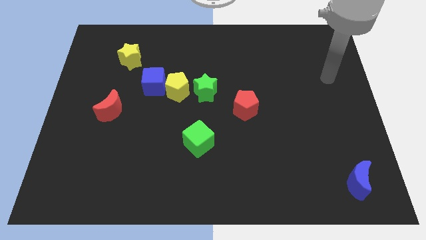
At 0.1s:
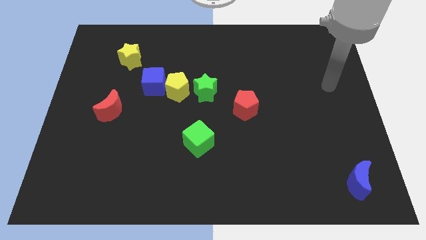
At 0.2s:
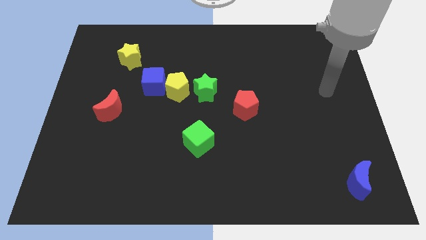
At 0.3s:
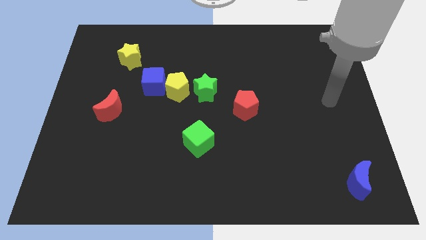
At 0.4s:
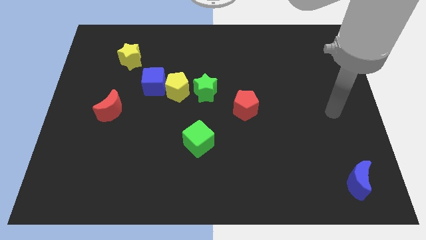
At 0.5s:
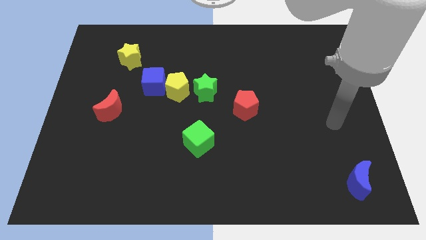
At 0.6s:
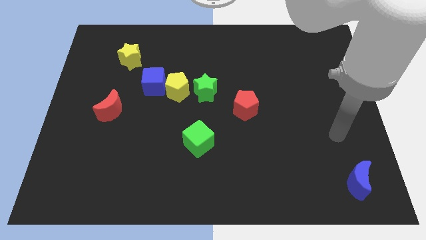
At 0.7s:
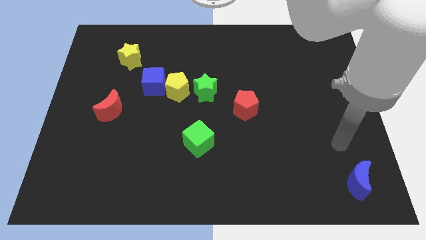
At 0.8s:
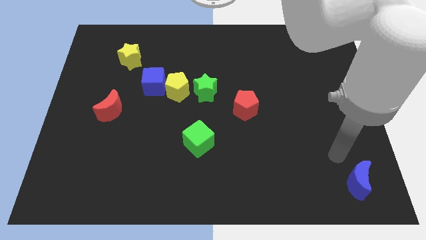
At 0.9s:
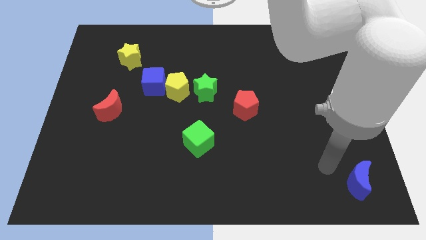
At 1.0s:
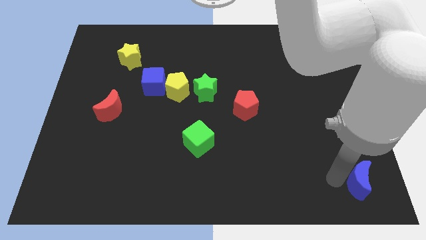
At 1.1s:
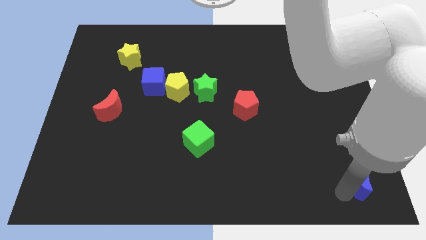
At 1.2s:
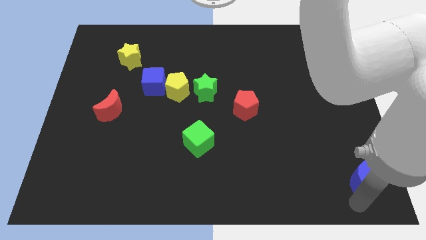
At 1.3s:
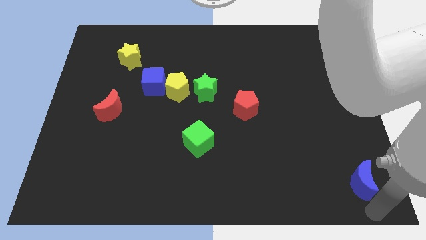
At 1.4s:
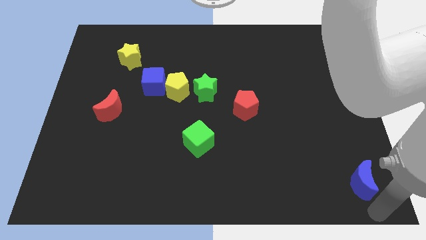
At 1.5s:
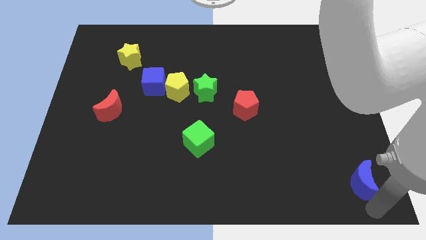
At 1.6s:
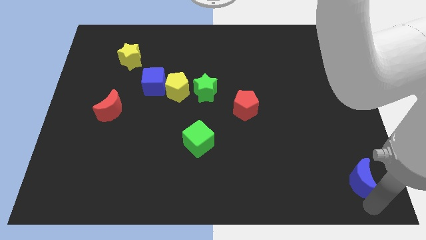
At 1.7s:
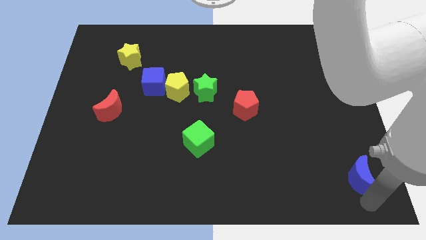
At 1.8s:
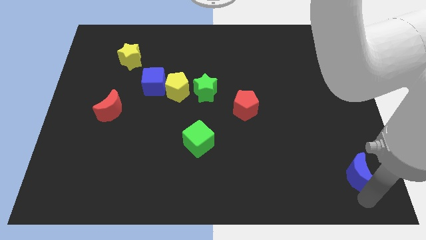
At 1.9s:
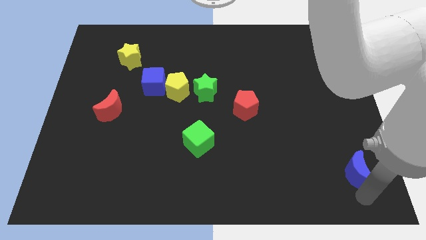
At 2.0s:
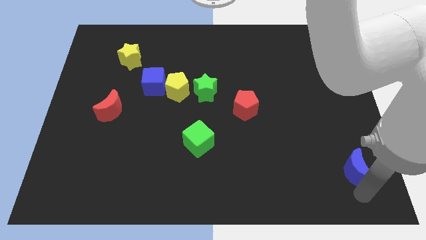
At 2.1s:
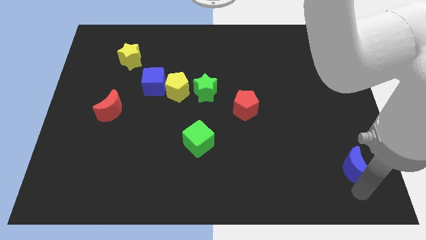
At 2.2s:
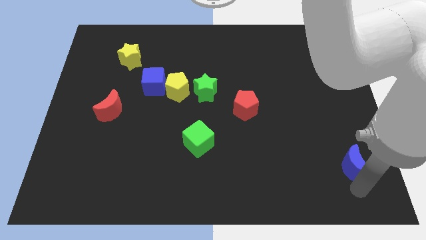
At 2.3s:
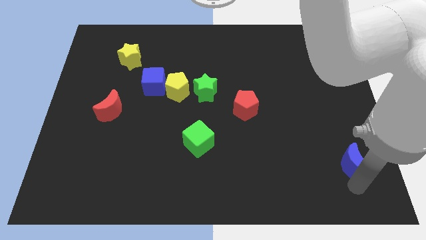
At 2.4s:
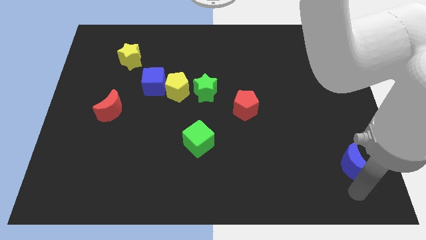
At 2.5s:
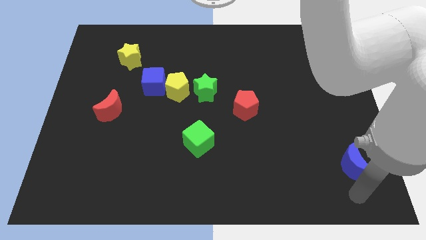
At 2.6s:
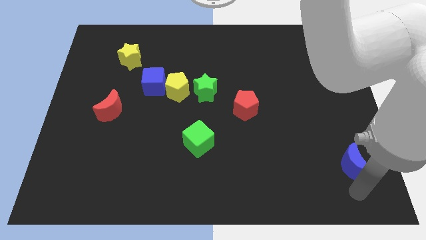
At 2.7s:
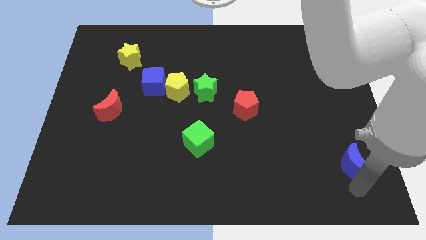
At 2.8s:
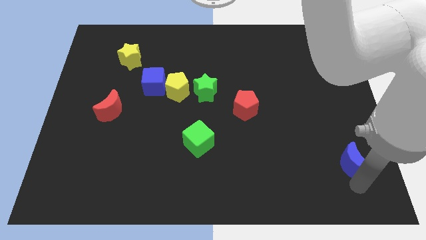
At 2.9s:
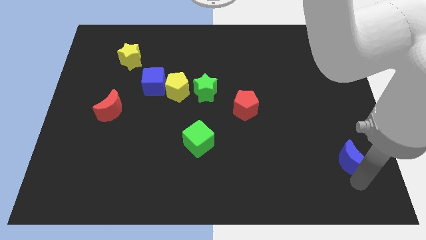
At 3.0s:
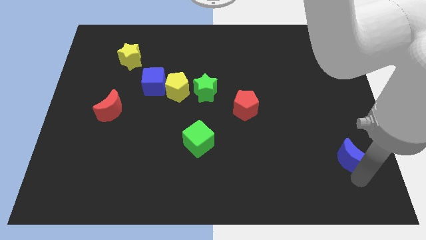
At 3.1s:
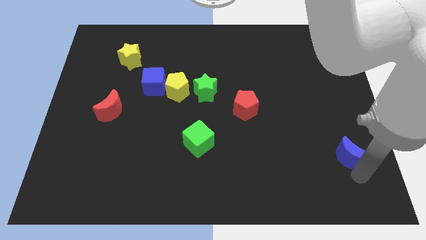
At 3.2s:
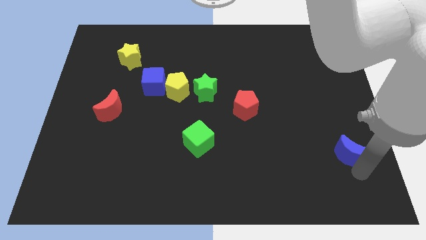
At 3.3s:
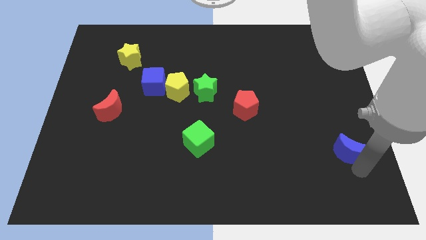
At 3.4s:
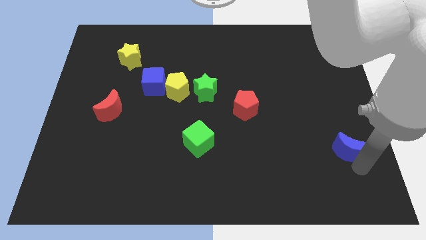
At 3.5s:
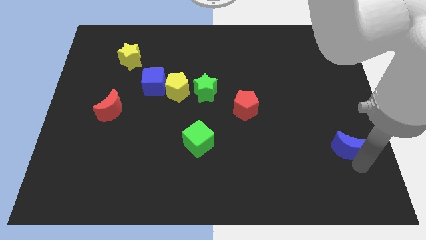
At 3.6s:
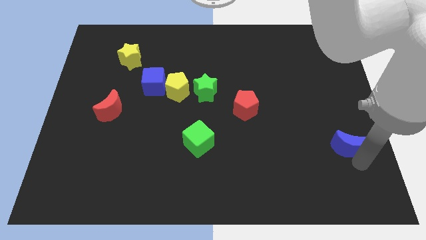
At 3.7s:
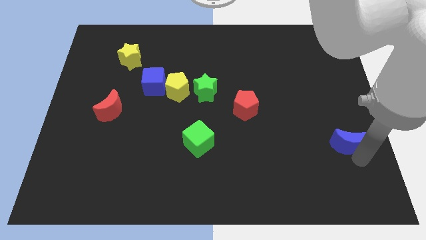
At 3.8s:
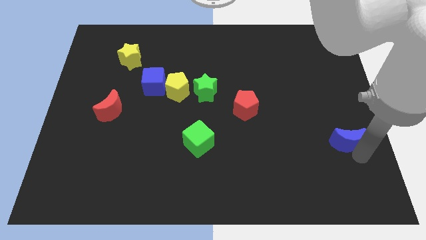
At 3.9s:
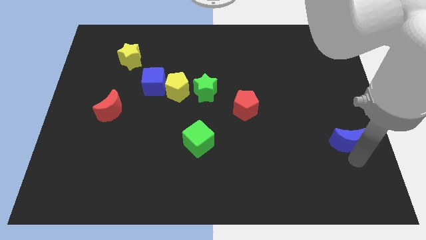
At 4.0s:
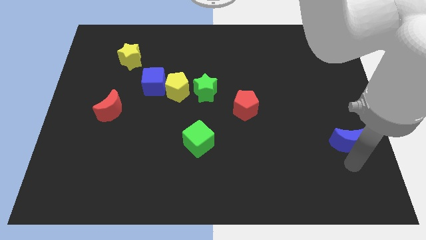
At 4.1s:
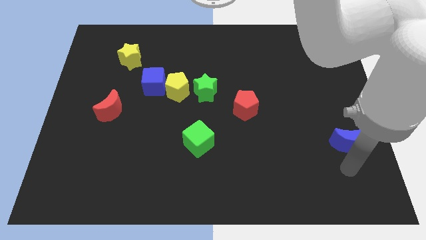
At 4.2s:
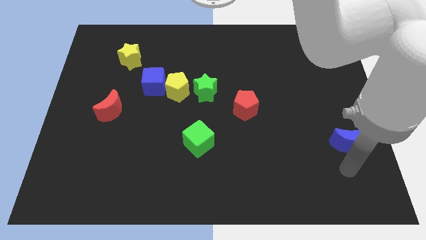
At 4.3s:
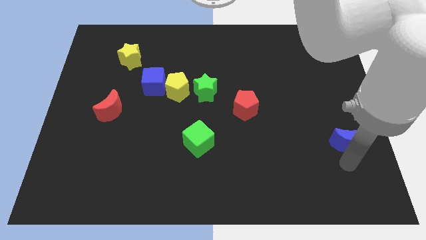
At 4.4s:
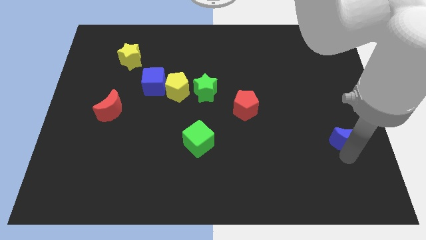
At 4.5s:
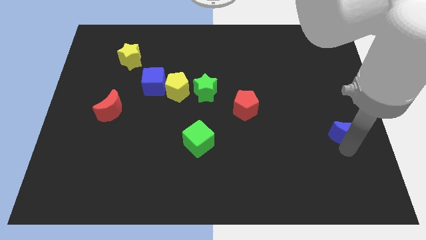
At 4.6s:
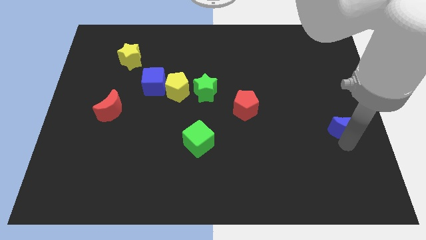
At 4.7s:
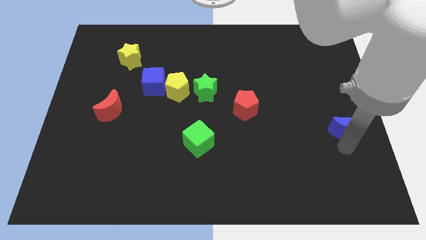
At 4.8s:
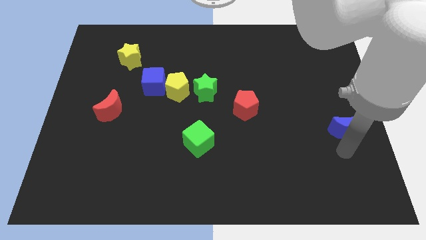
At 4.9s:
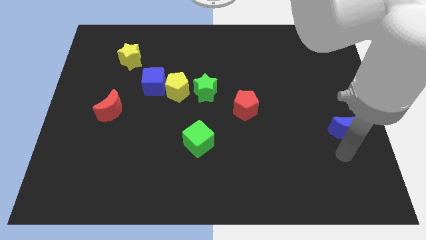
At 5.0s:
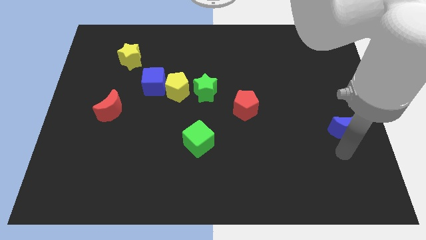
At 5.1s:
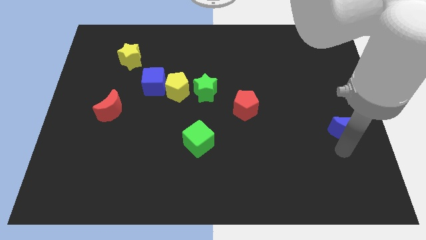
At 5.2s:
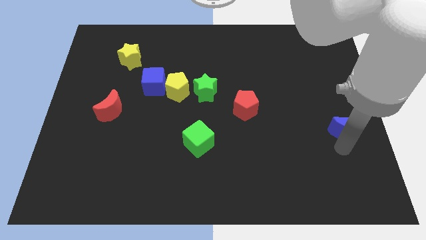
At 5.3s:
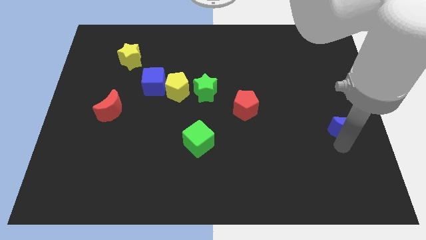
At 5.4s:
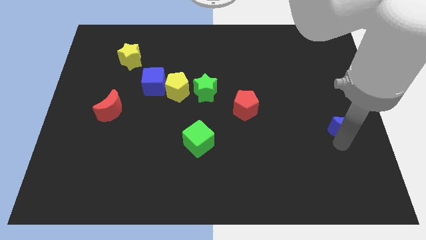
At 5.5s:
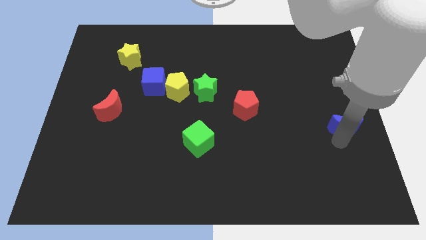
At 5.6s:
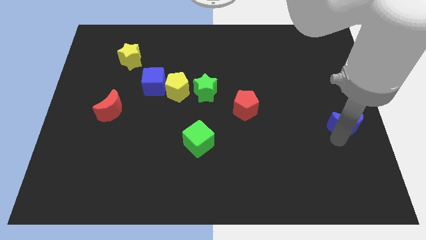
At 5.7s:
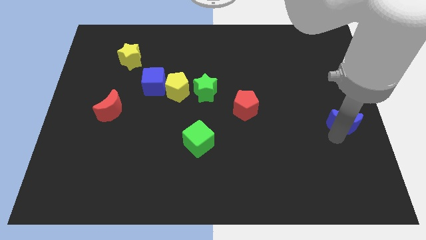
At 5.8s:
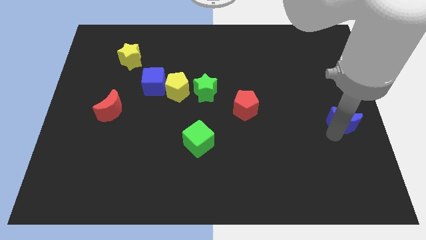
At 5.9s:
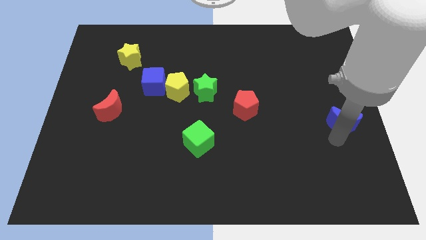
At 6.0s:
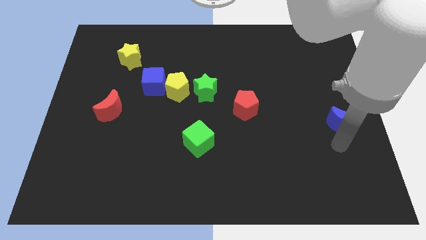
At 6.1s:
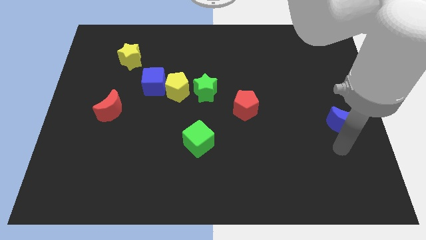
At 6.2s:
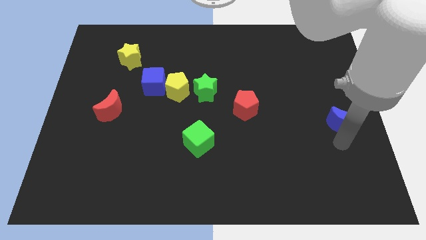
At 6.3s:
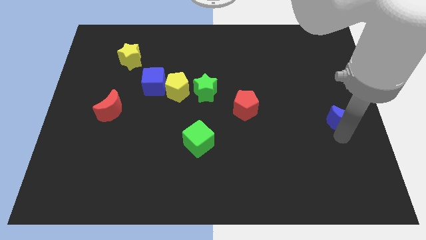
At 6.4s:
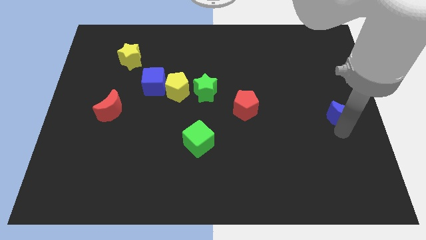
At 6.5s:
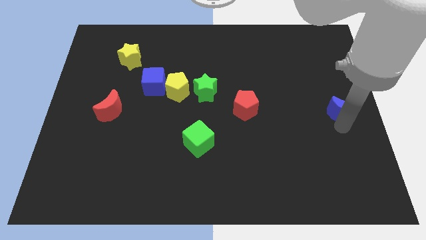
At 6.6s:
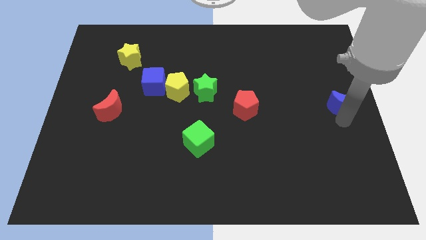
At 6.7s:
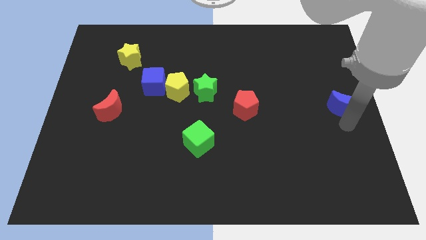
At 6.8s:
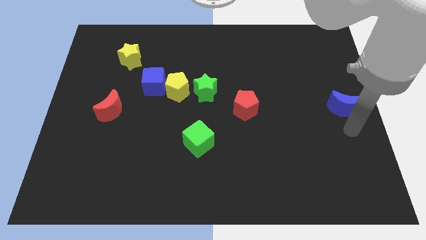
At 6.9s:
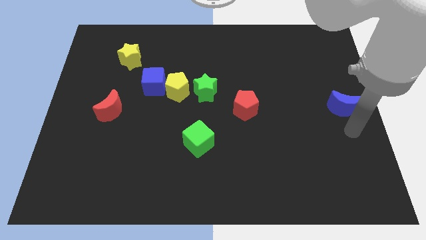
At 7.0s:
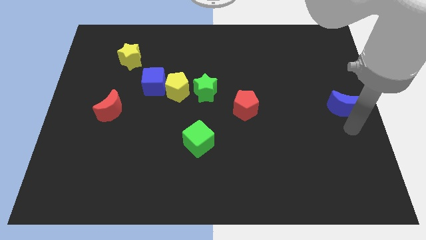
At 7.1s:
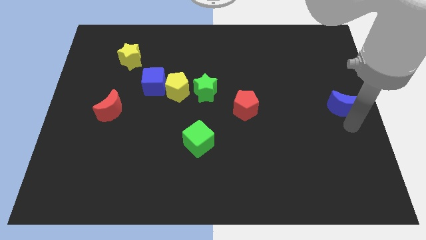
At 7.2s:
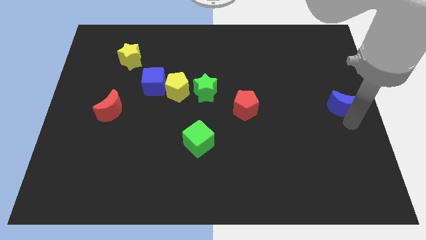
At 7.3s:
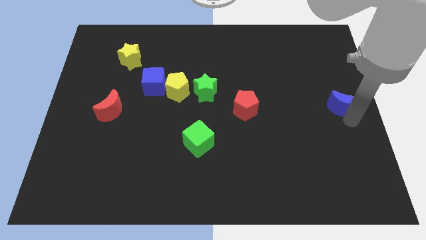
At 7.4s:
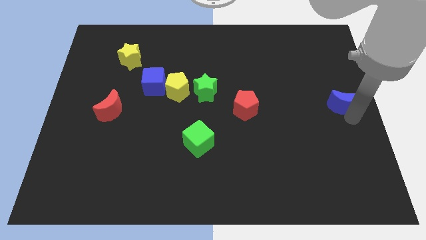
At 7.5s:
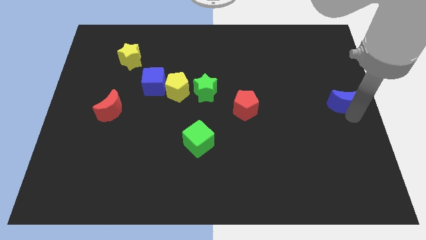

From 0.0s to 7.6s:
slide the blue moon up

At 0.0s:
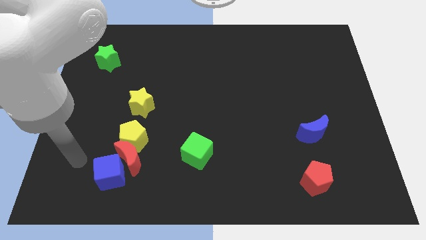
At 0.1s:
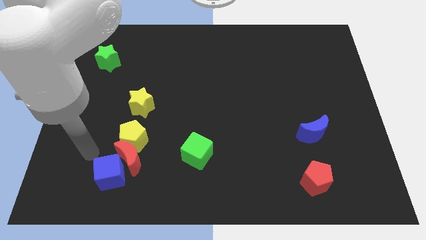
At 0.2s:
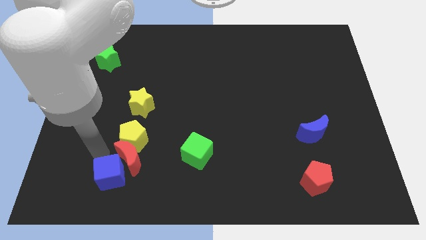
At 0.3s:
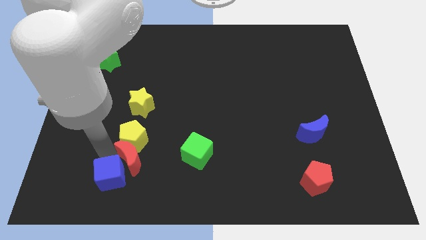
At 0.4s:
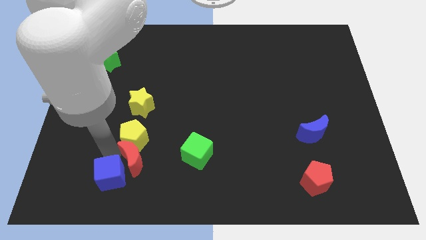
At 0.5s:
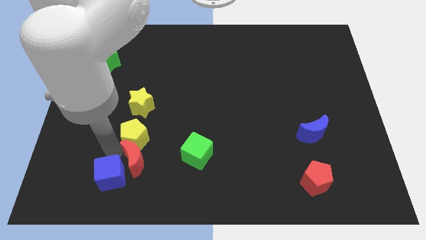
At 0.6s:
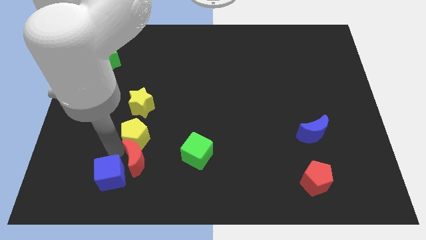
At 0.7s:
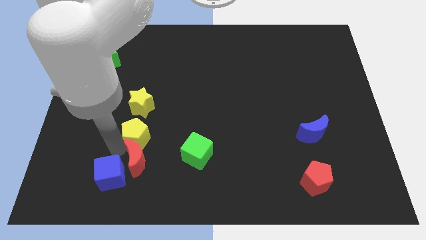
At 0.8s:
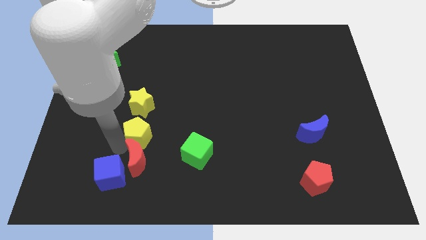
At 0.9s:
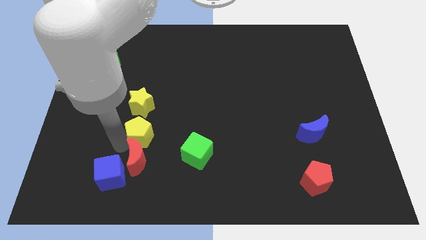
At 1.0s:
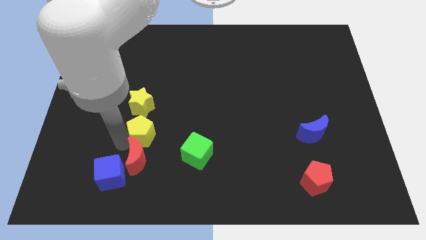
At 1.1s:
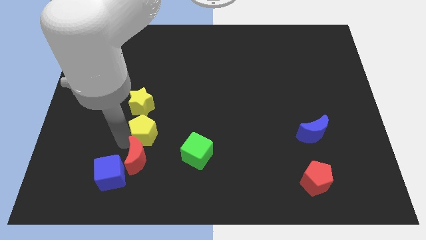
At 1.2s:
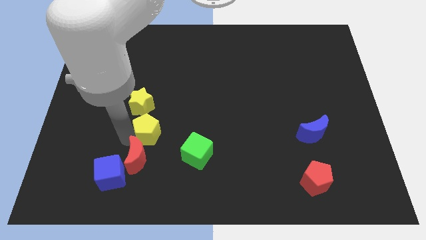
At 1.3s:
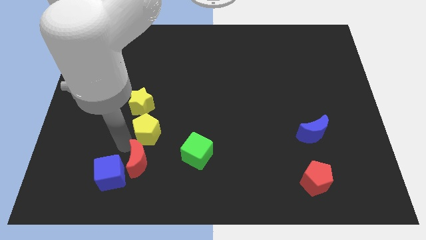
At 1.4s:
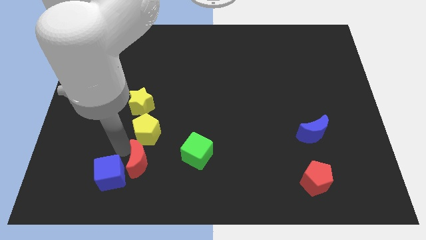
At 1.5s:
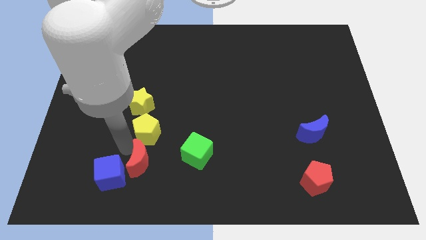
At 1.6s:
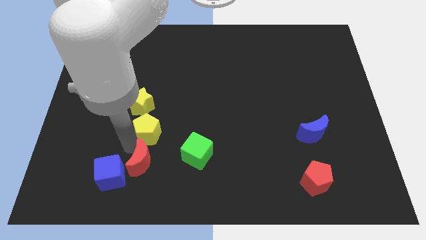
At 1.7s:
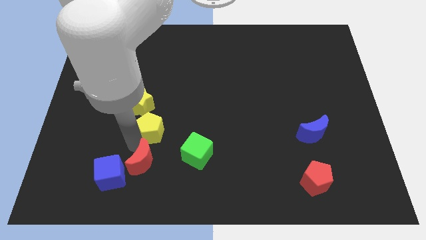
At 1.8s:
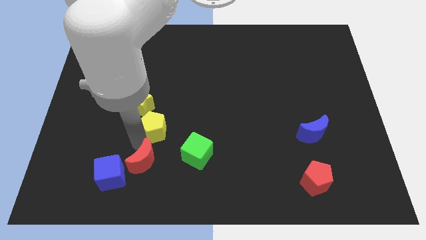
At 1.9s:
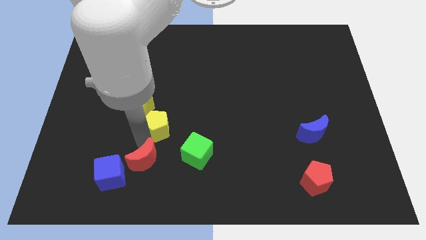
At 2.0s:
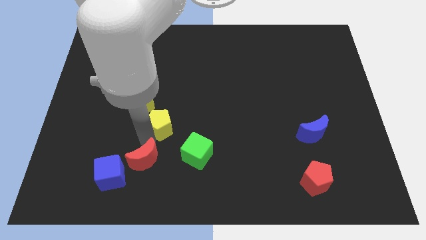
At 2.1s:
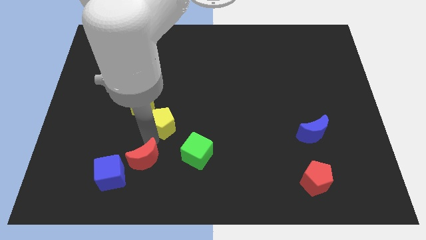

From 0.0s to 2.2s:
slide the yellow pentagon a little bit upwards and then right
